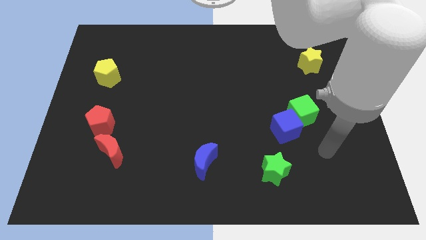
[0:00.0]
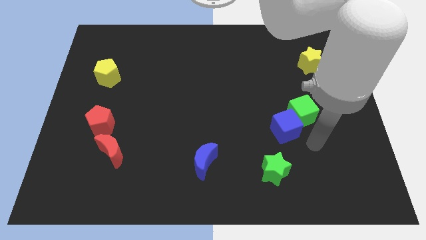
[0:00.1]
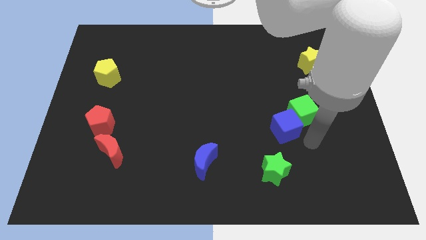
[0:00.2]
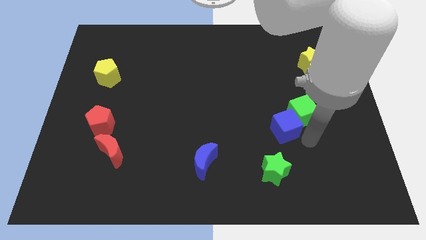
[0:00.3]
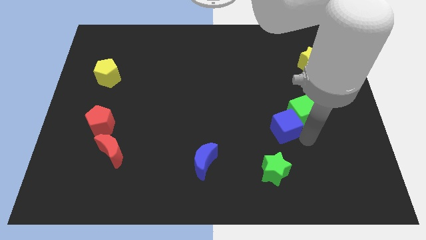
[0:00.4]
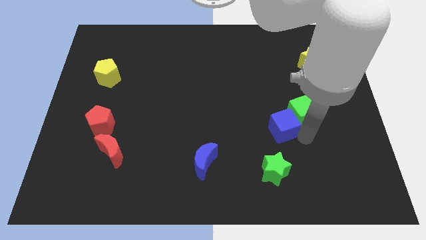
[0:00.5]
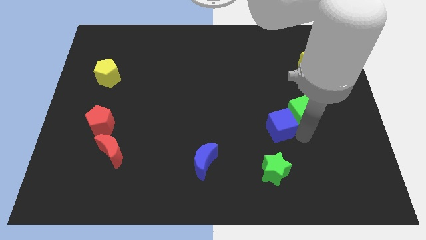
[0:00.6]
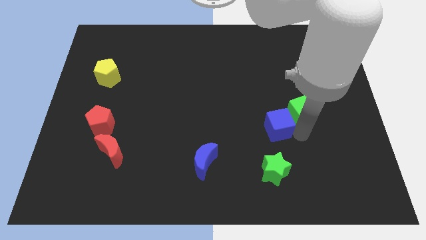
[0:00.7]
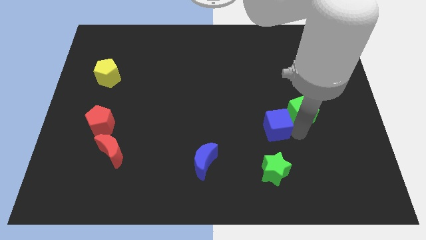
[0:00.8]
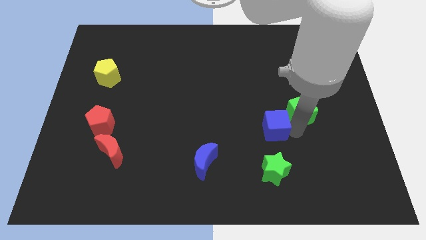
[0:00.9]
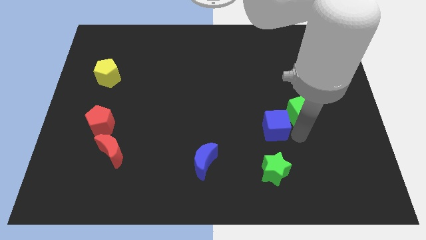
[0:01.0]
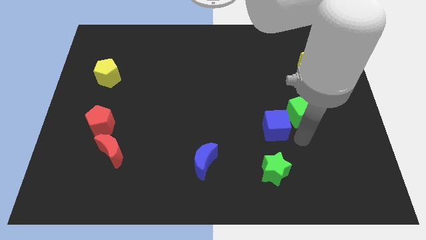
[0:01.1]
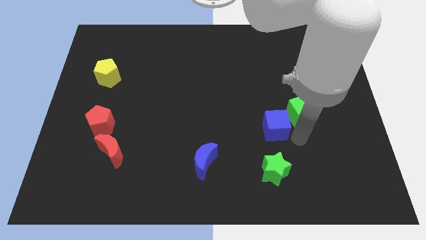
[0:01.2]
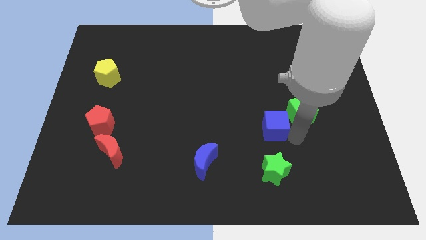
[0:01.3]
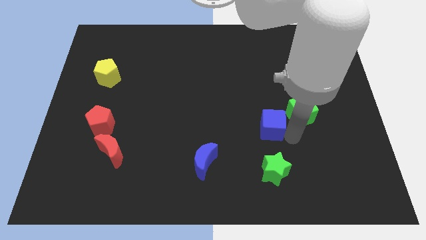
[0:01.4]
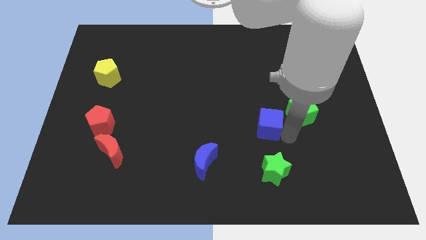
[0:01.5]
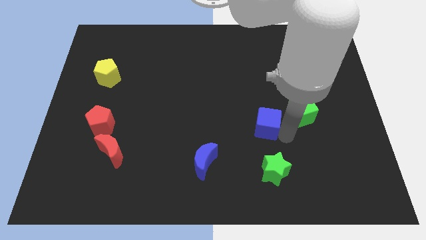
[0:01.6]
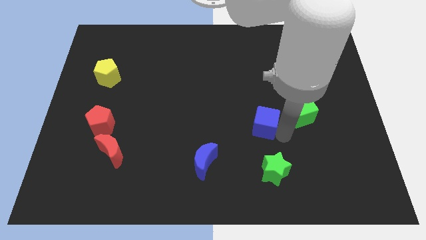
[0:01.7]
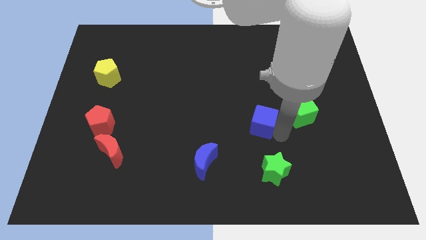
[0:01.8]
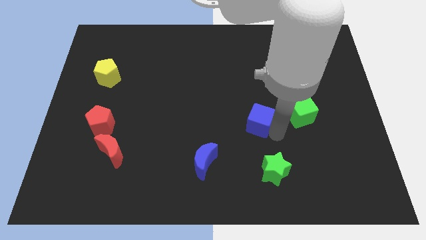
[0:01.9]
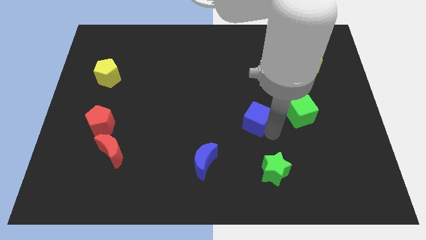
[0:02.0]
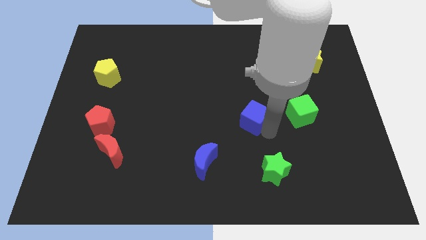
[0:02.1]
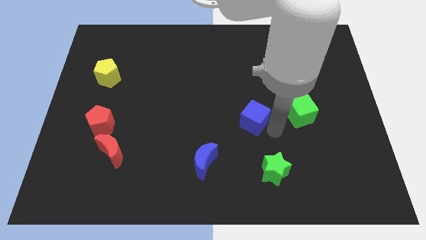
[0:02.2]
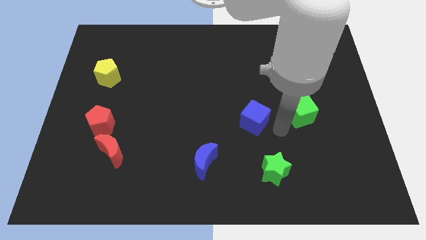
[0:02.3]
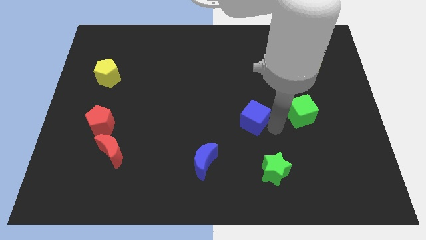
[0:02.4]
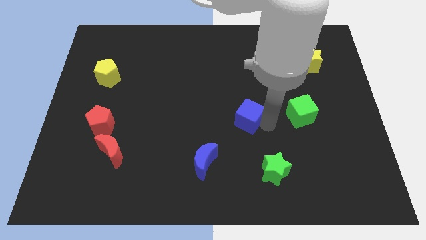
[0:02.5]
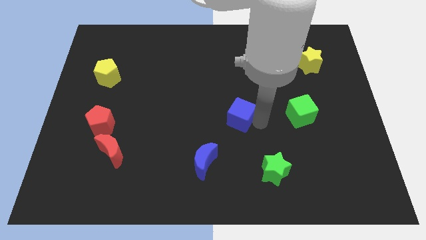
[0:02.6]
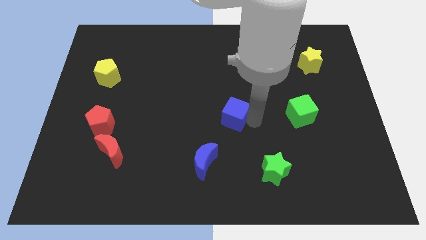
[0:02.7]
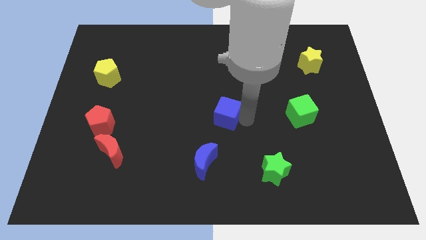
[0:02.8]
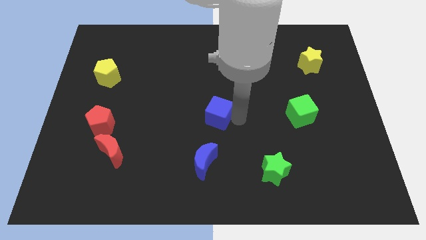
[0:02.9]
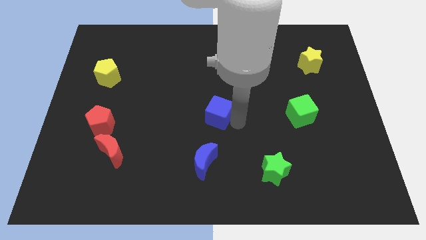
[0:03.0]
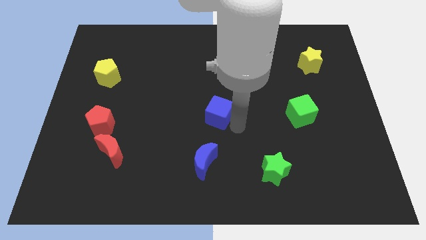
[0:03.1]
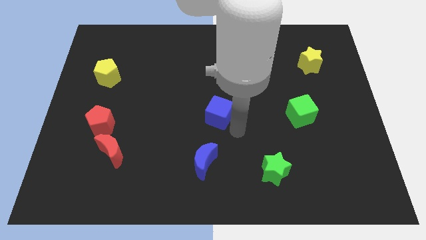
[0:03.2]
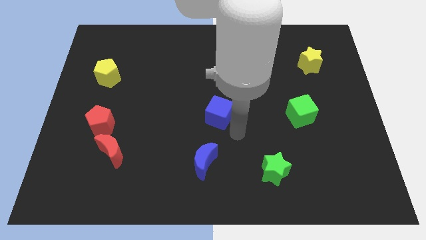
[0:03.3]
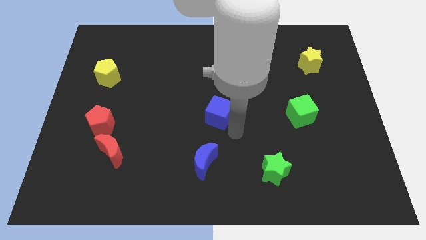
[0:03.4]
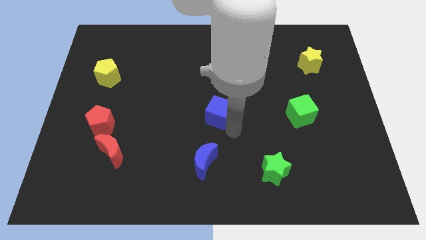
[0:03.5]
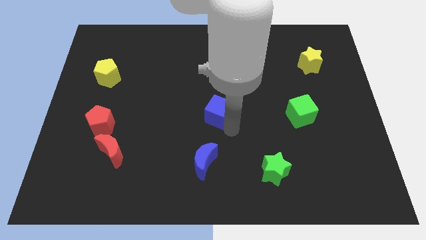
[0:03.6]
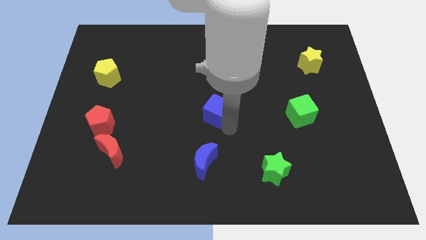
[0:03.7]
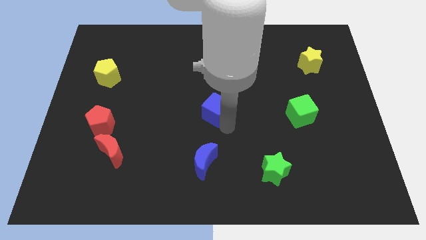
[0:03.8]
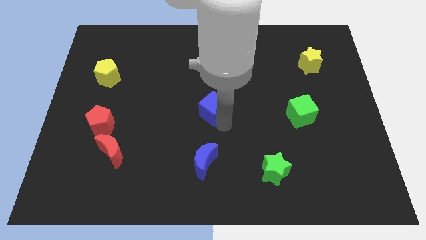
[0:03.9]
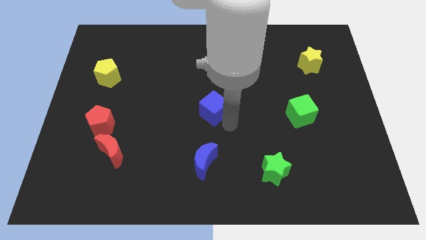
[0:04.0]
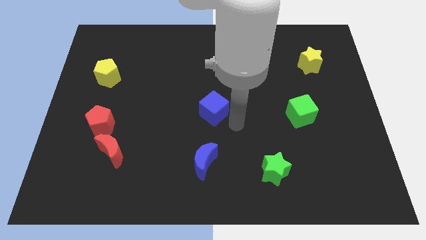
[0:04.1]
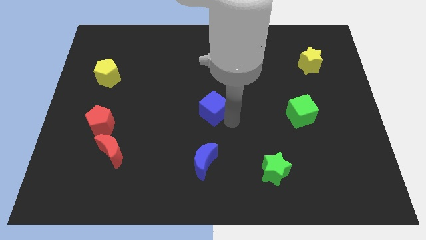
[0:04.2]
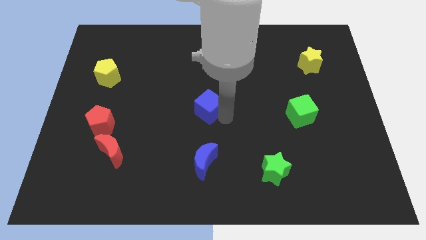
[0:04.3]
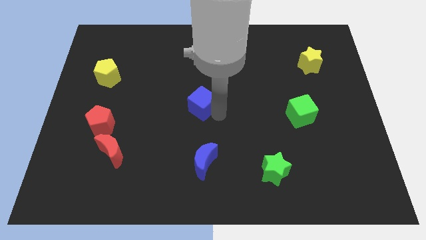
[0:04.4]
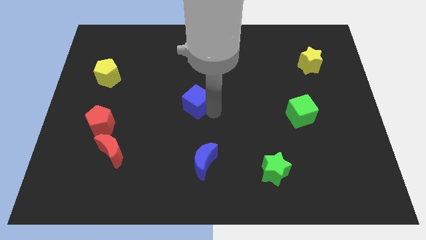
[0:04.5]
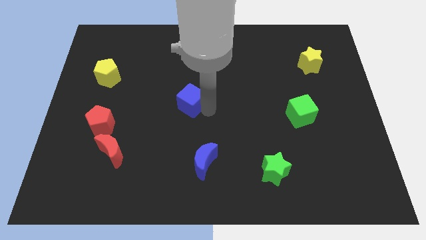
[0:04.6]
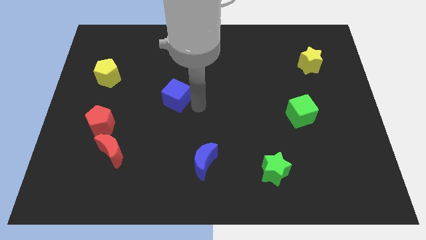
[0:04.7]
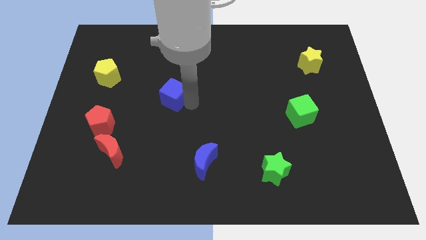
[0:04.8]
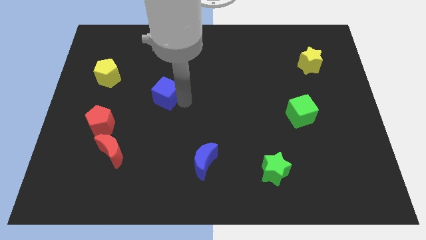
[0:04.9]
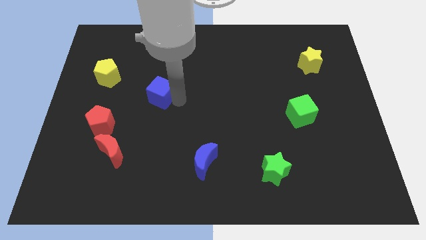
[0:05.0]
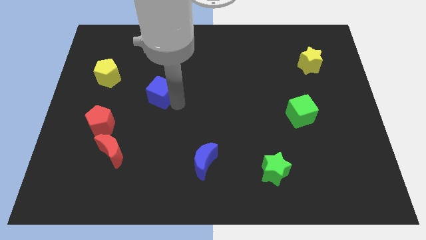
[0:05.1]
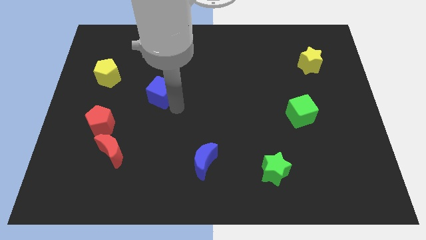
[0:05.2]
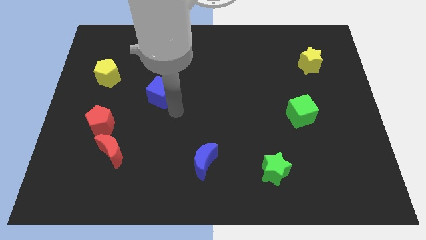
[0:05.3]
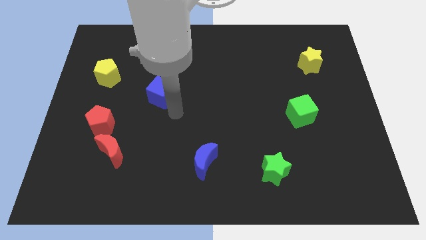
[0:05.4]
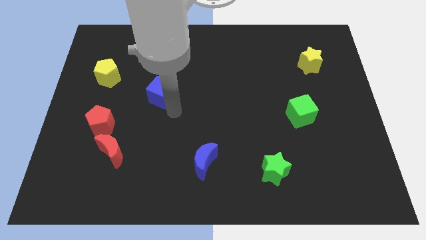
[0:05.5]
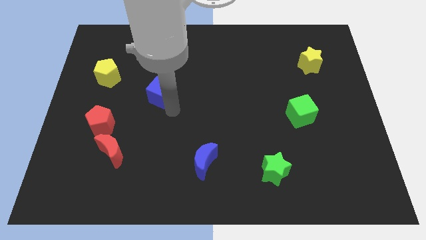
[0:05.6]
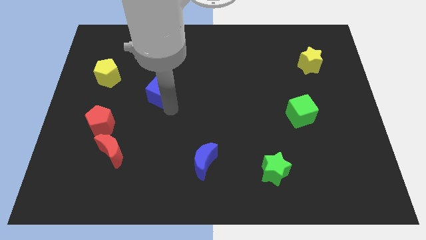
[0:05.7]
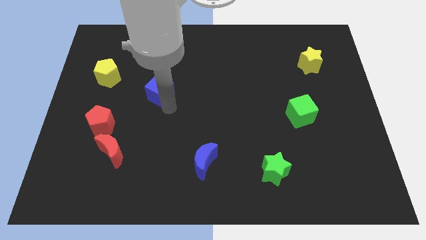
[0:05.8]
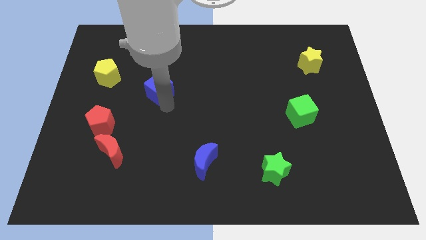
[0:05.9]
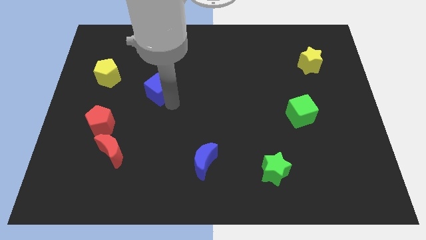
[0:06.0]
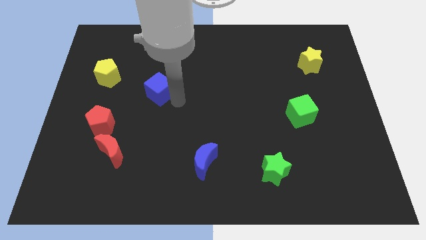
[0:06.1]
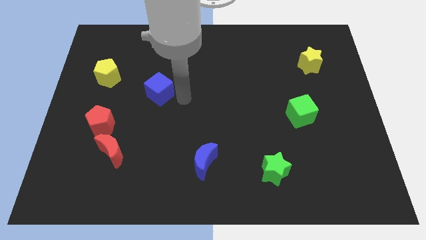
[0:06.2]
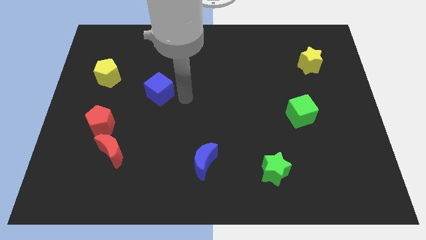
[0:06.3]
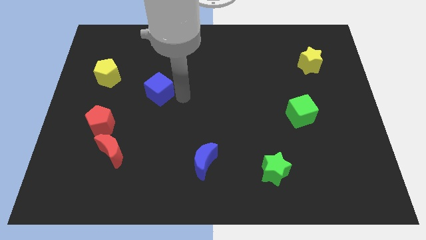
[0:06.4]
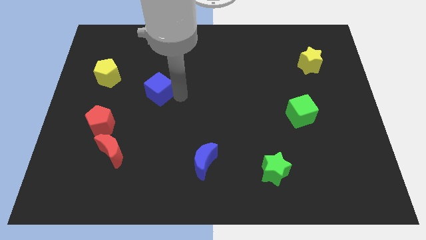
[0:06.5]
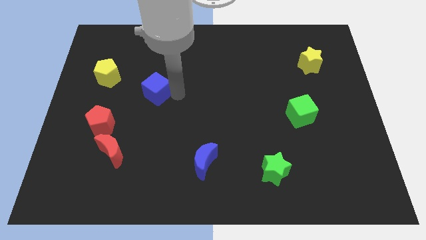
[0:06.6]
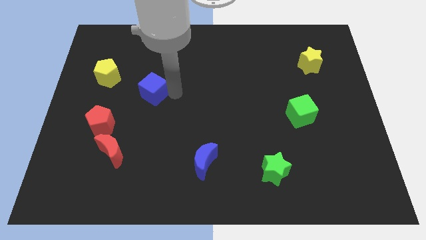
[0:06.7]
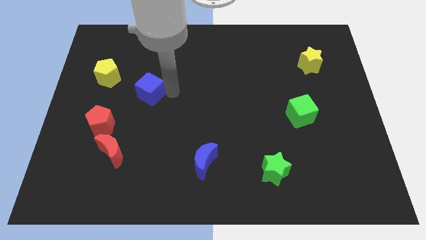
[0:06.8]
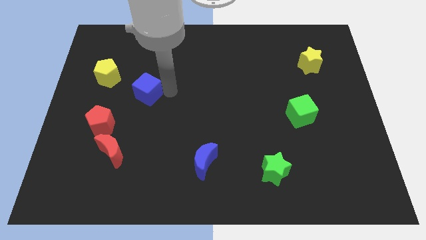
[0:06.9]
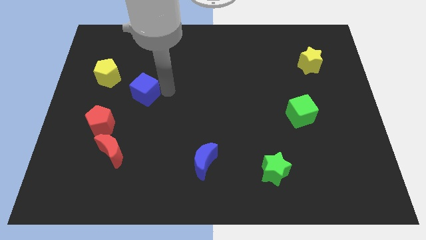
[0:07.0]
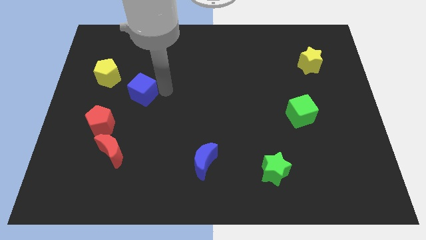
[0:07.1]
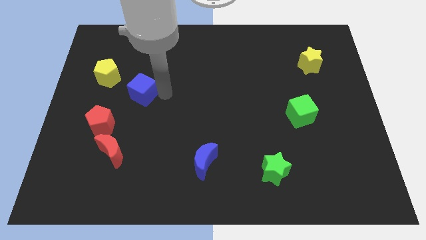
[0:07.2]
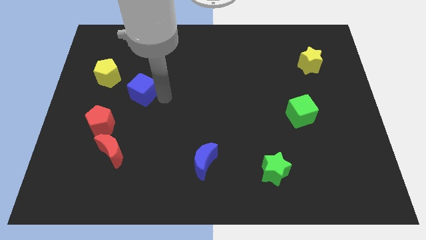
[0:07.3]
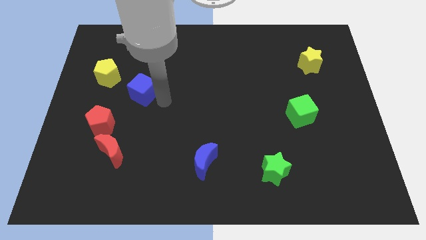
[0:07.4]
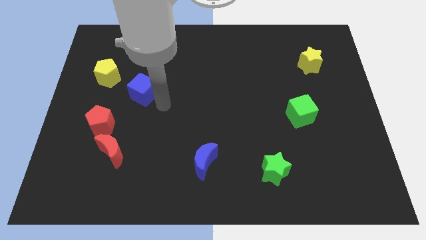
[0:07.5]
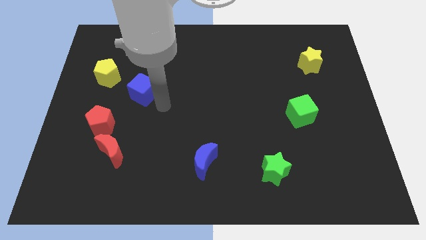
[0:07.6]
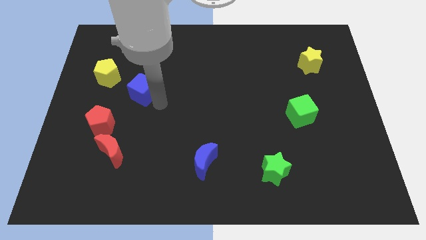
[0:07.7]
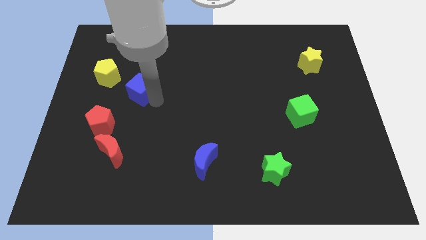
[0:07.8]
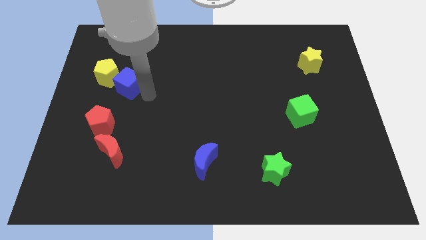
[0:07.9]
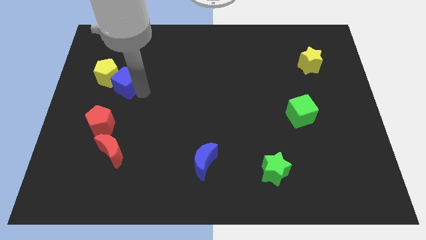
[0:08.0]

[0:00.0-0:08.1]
slide the blue cube next to the yellow pentagon
